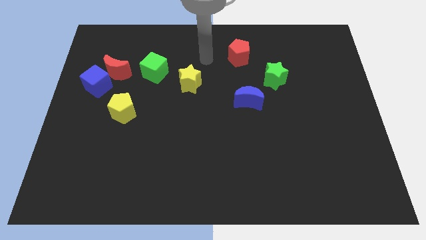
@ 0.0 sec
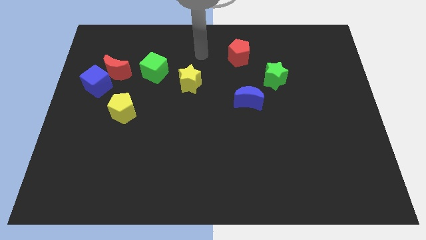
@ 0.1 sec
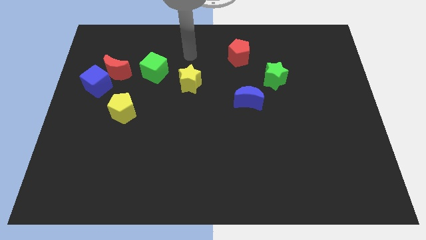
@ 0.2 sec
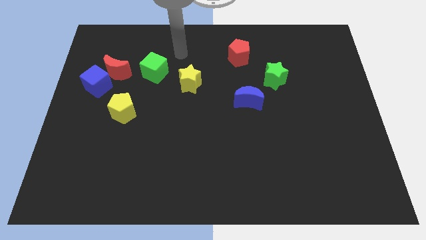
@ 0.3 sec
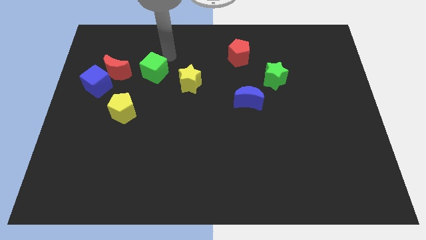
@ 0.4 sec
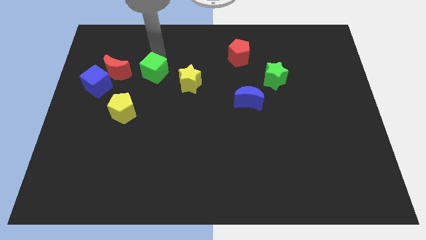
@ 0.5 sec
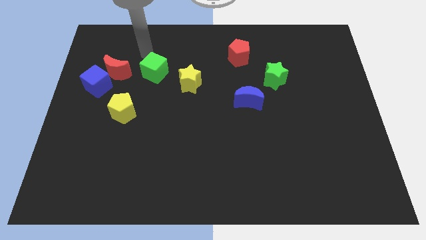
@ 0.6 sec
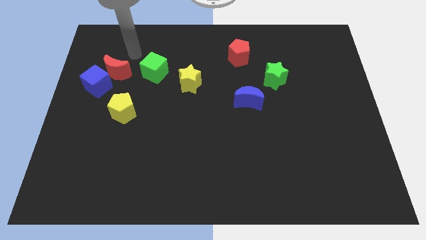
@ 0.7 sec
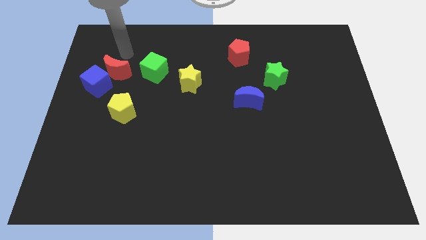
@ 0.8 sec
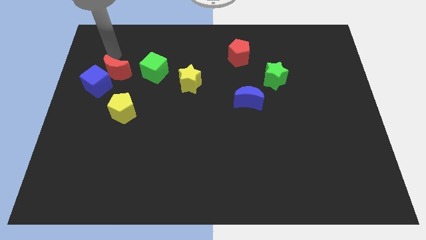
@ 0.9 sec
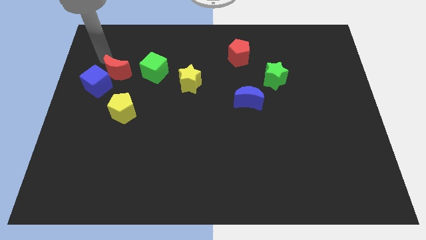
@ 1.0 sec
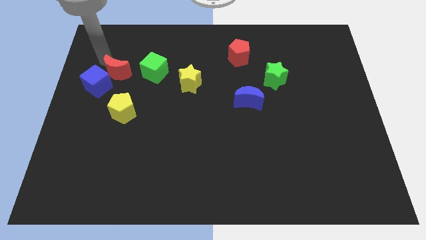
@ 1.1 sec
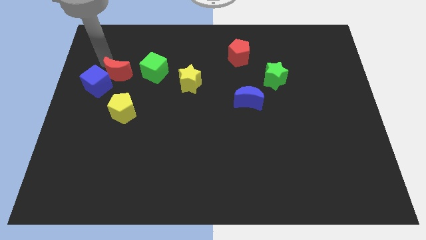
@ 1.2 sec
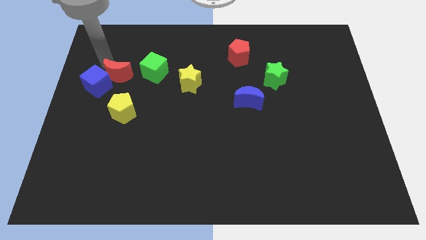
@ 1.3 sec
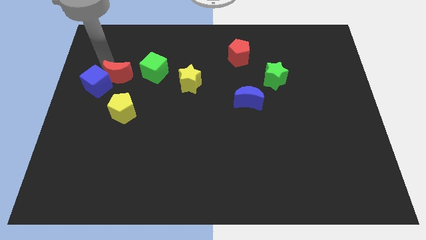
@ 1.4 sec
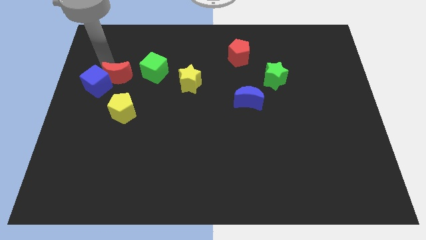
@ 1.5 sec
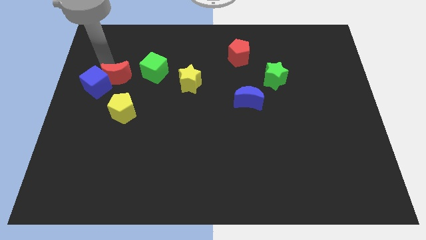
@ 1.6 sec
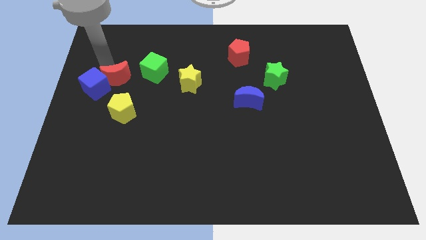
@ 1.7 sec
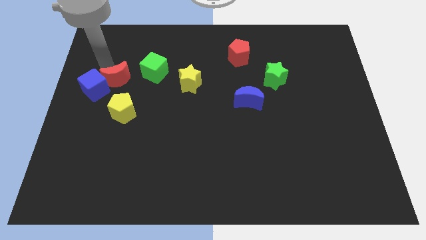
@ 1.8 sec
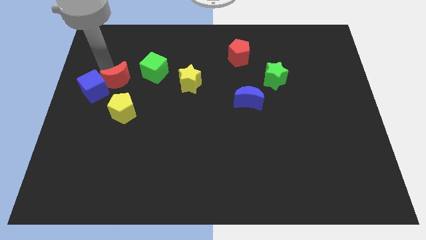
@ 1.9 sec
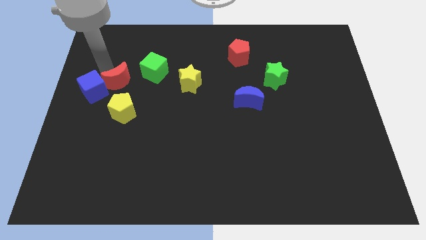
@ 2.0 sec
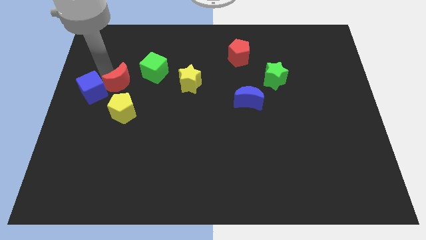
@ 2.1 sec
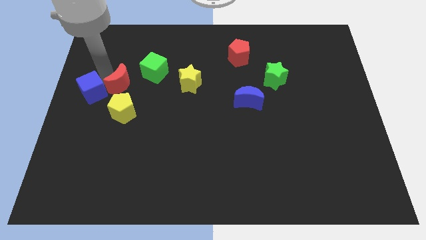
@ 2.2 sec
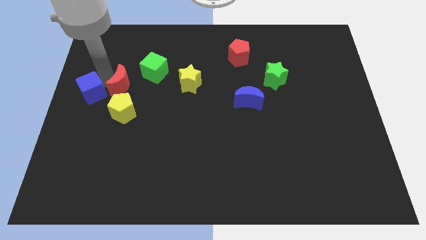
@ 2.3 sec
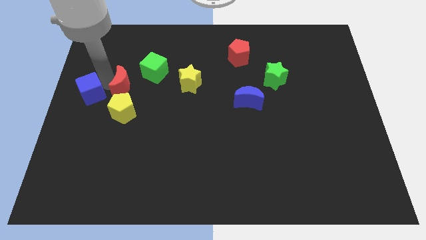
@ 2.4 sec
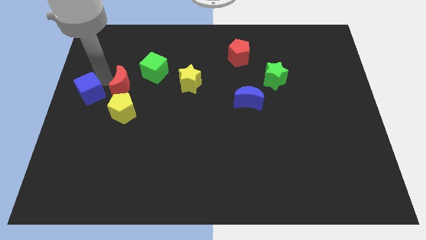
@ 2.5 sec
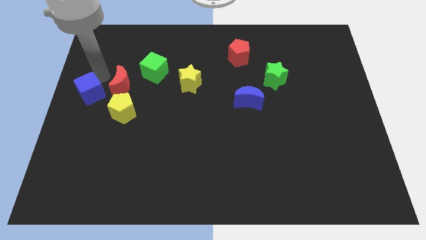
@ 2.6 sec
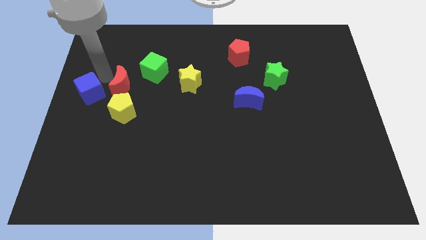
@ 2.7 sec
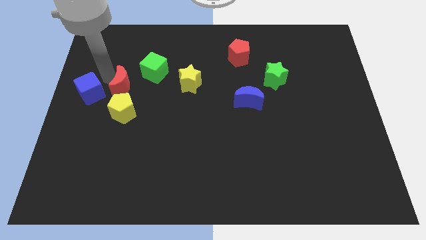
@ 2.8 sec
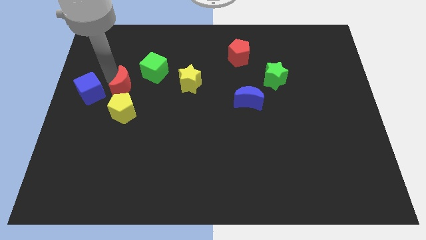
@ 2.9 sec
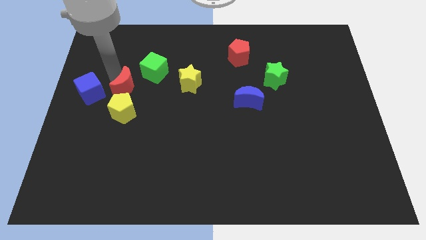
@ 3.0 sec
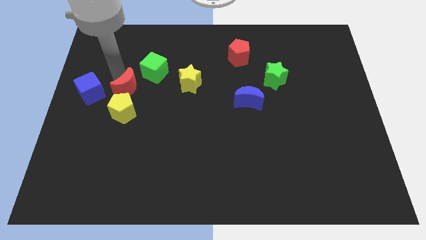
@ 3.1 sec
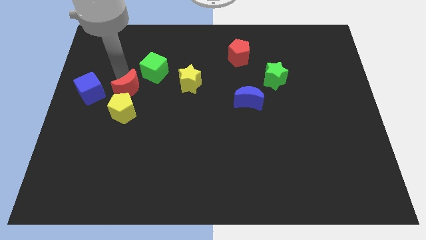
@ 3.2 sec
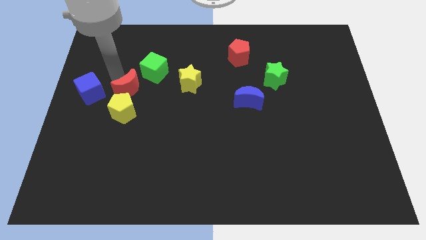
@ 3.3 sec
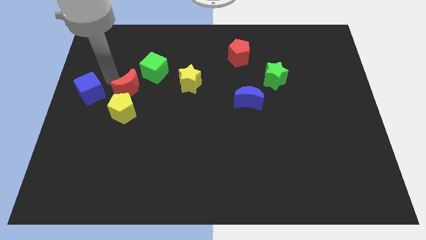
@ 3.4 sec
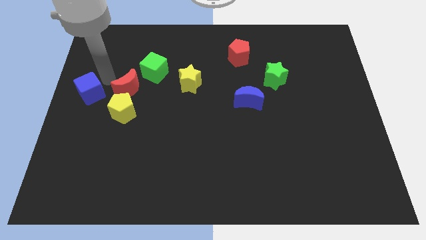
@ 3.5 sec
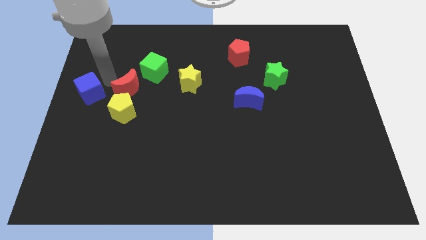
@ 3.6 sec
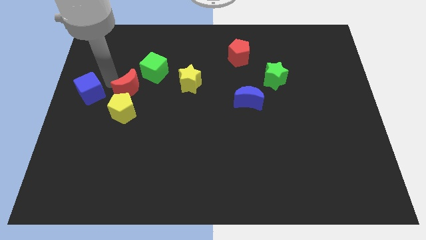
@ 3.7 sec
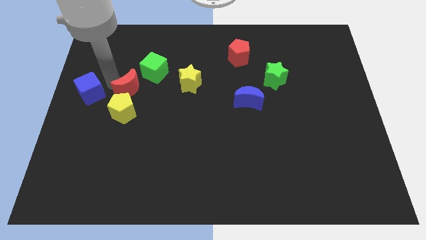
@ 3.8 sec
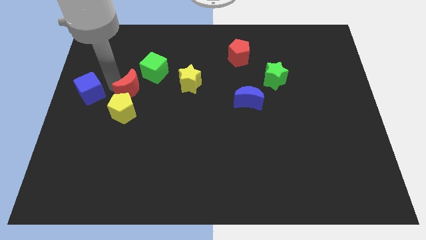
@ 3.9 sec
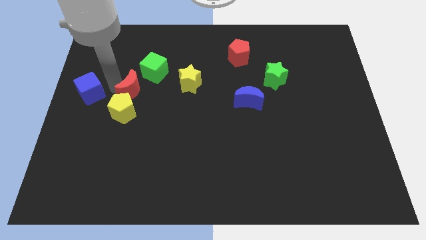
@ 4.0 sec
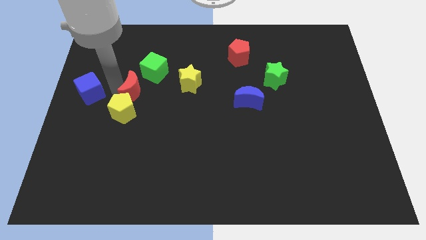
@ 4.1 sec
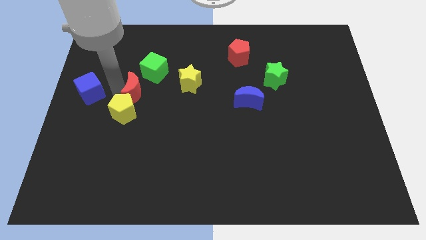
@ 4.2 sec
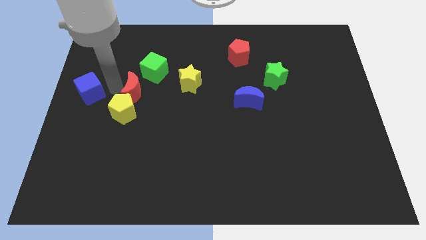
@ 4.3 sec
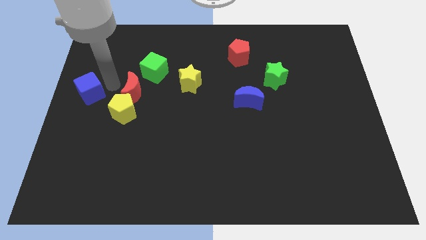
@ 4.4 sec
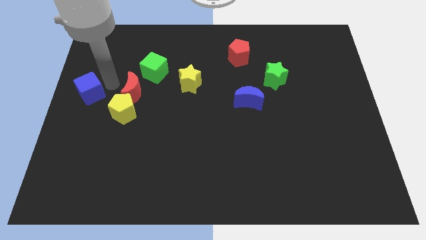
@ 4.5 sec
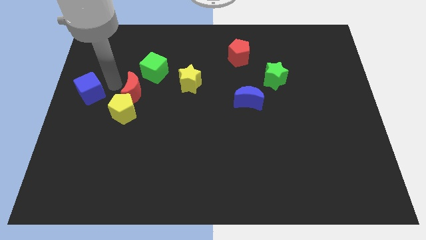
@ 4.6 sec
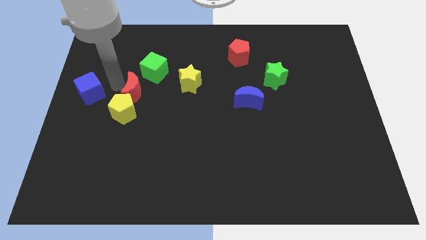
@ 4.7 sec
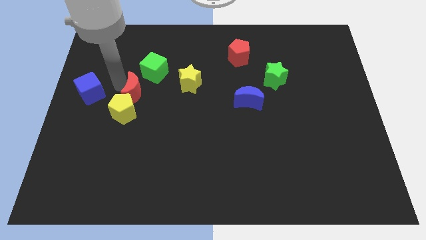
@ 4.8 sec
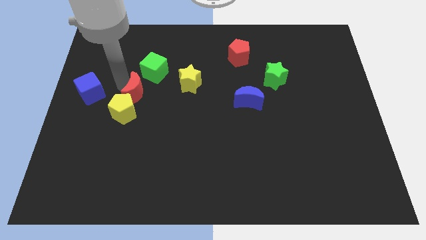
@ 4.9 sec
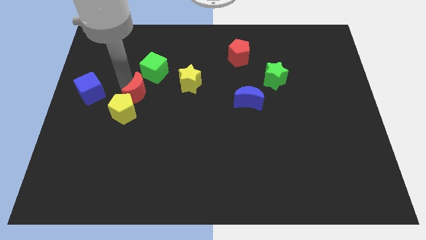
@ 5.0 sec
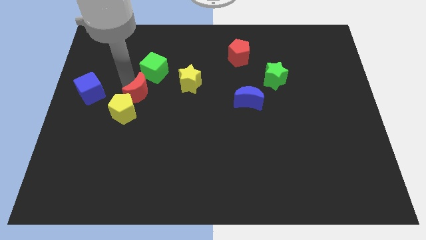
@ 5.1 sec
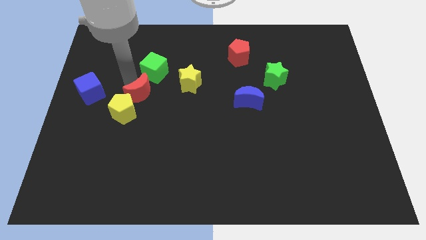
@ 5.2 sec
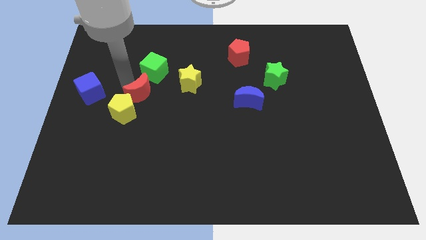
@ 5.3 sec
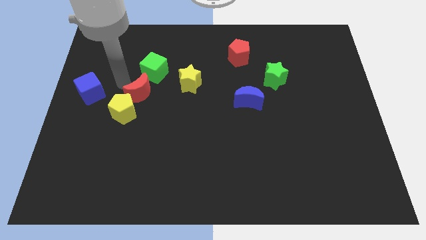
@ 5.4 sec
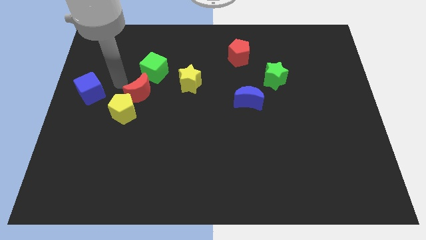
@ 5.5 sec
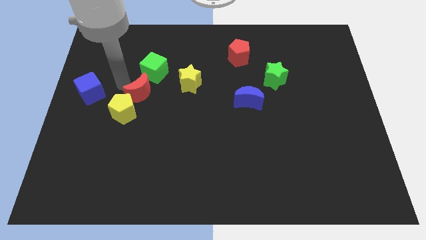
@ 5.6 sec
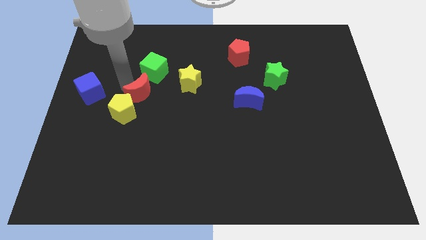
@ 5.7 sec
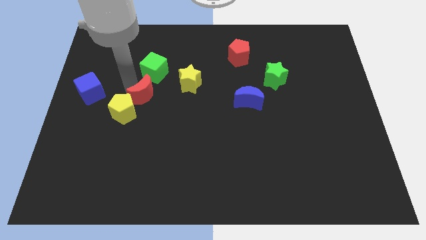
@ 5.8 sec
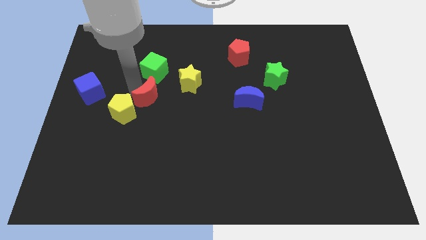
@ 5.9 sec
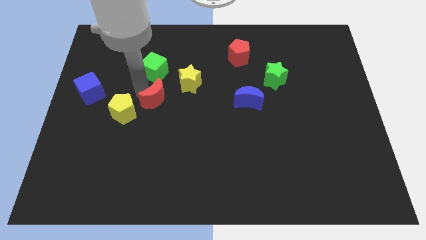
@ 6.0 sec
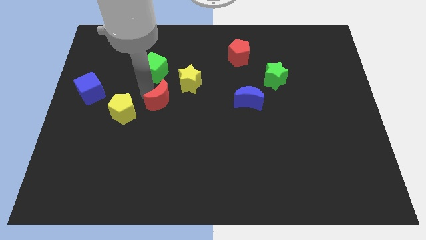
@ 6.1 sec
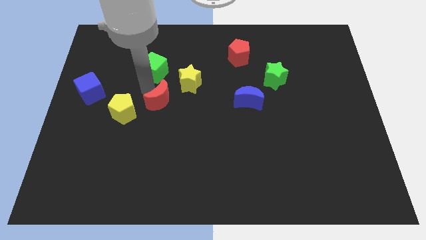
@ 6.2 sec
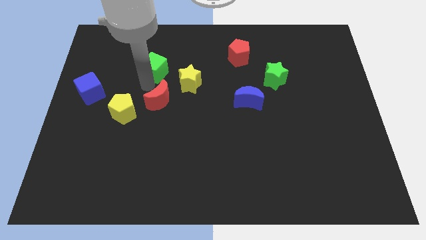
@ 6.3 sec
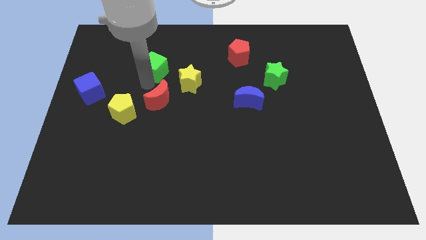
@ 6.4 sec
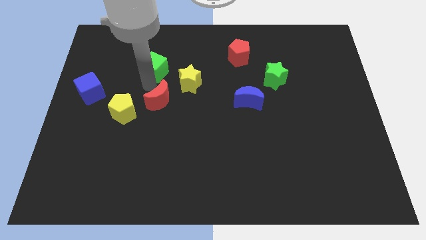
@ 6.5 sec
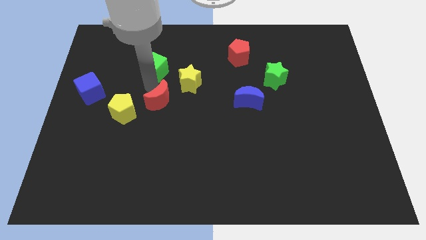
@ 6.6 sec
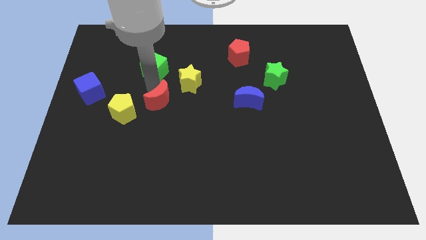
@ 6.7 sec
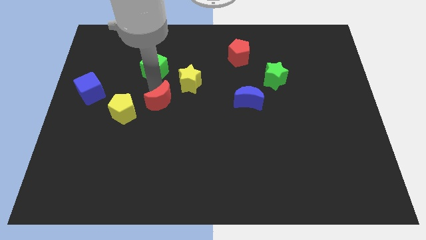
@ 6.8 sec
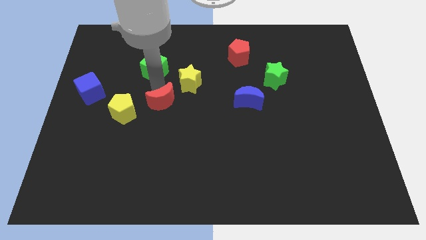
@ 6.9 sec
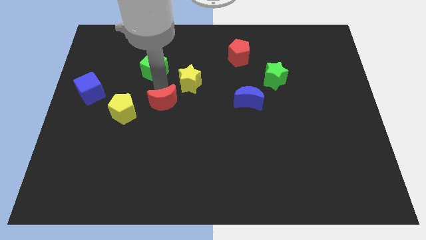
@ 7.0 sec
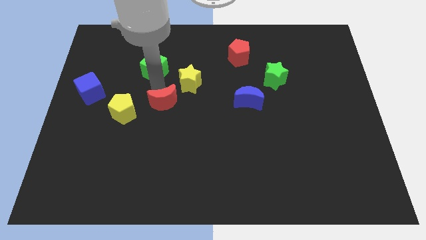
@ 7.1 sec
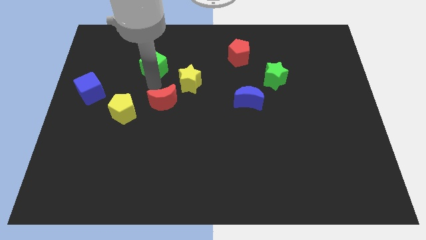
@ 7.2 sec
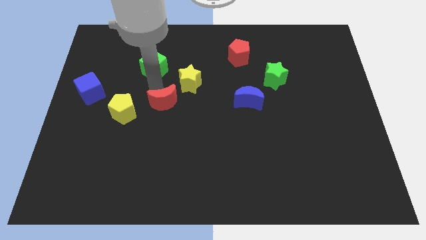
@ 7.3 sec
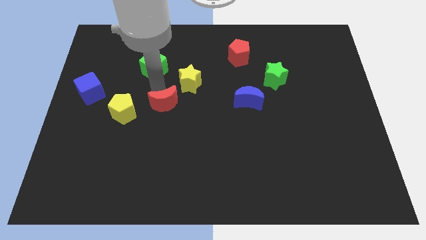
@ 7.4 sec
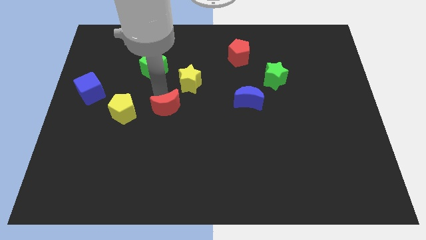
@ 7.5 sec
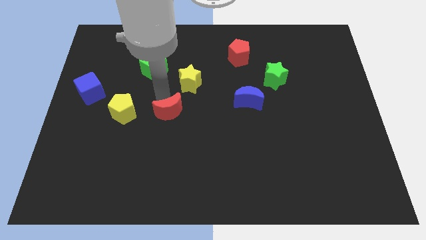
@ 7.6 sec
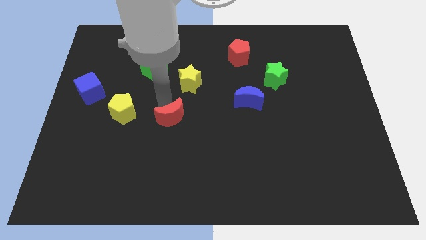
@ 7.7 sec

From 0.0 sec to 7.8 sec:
slide the red moon down and right
